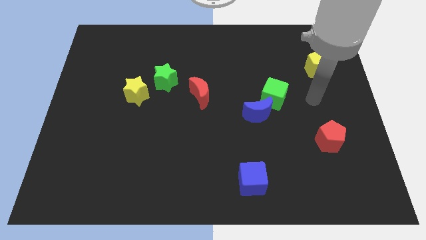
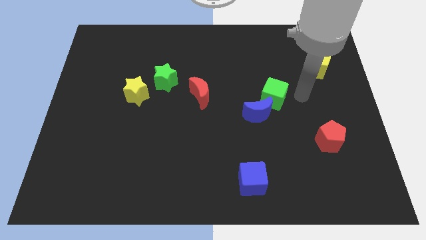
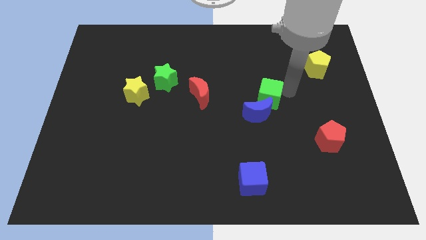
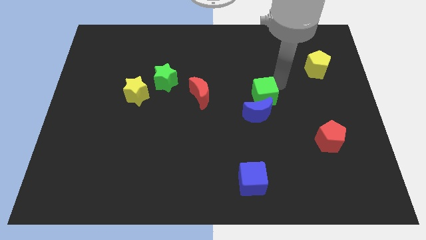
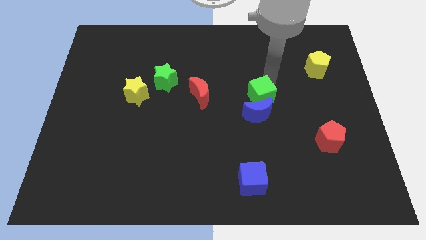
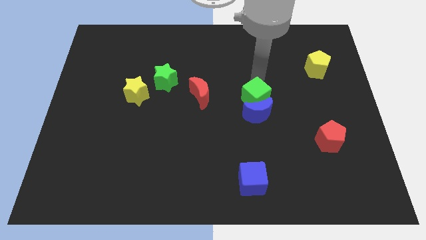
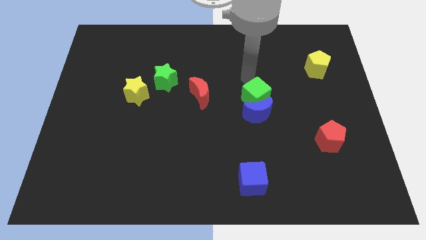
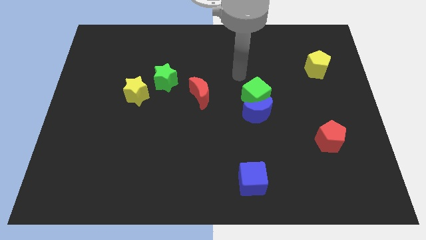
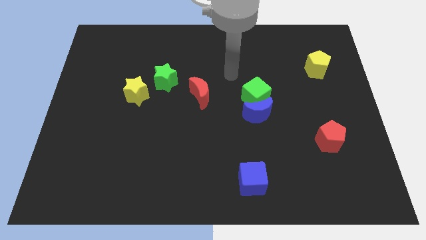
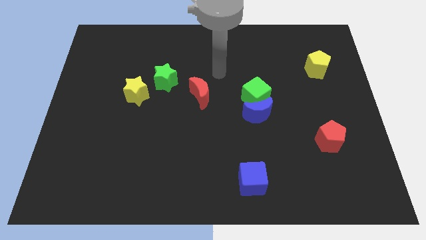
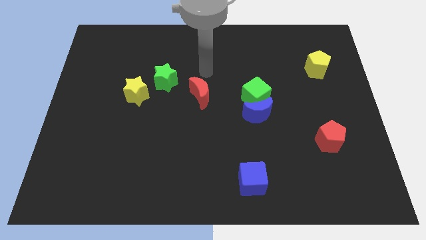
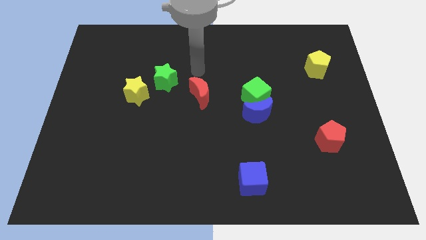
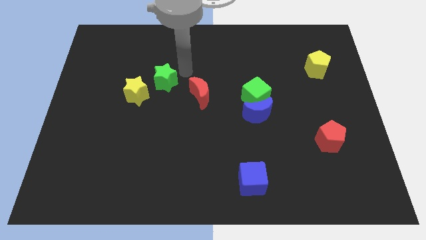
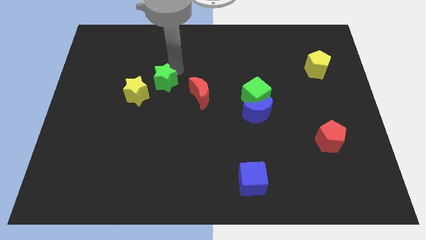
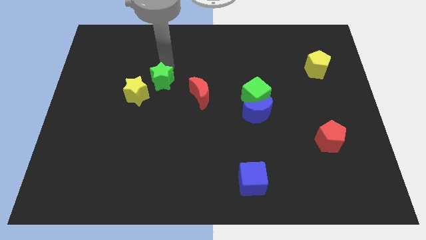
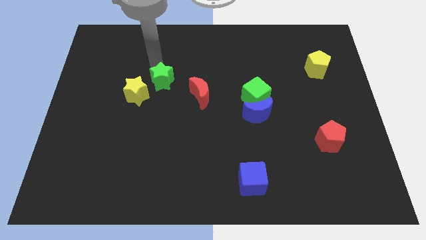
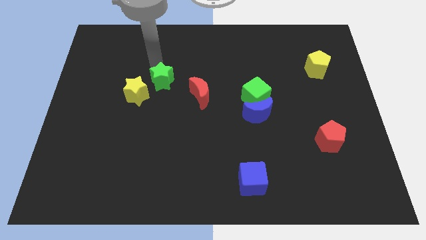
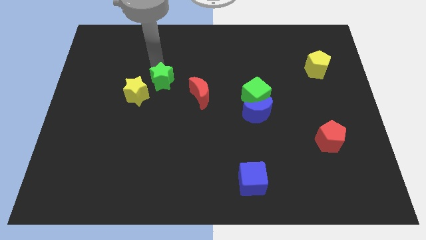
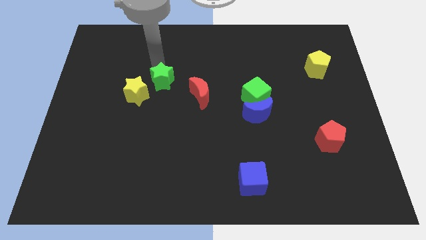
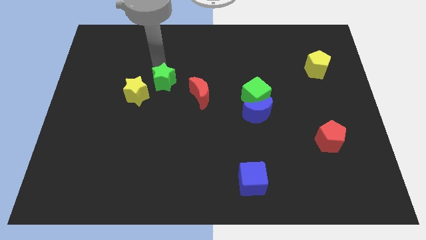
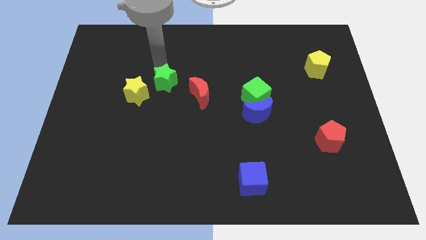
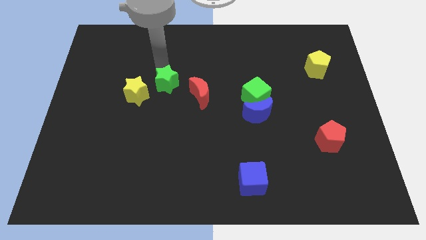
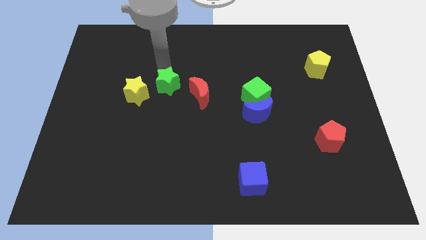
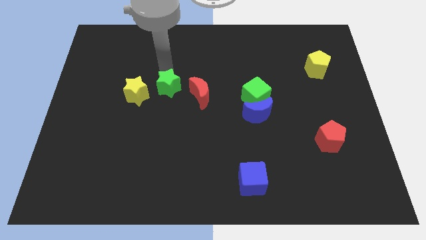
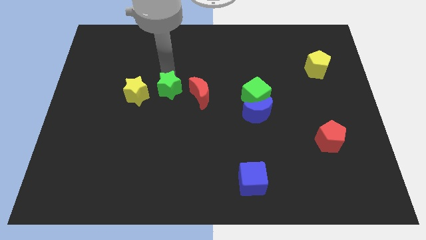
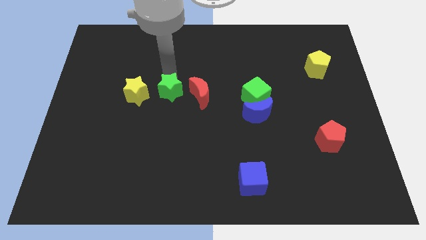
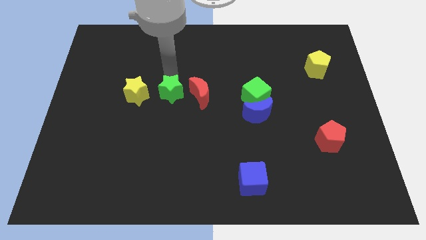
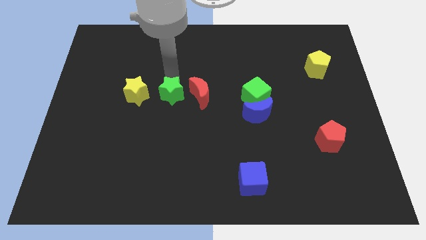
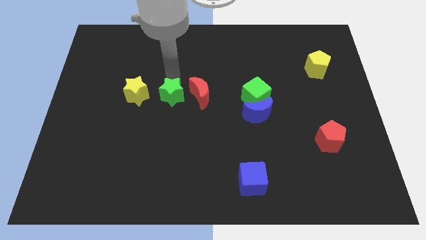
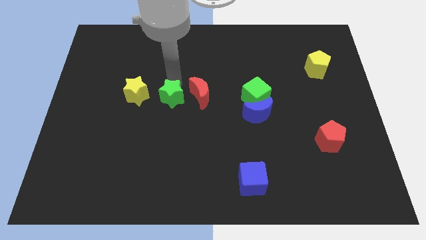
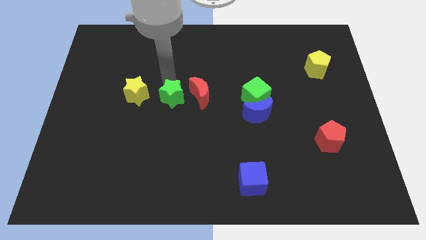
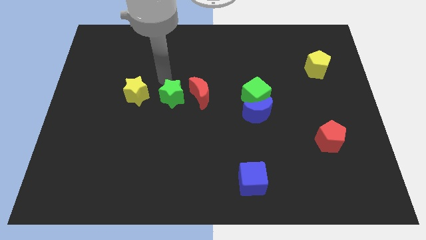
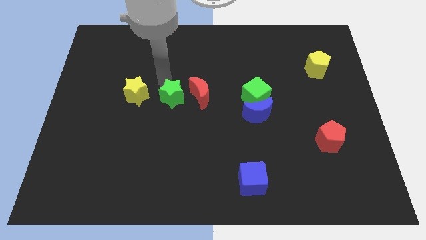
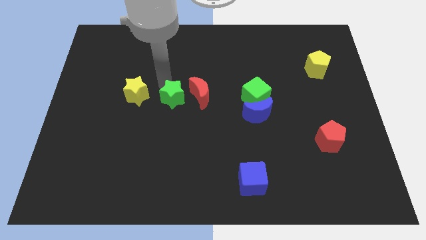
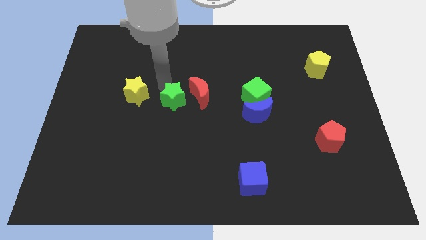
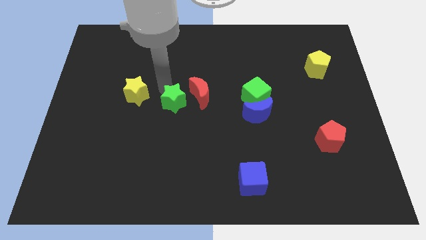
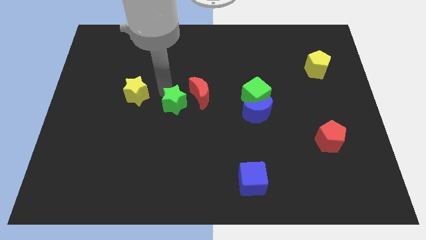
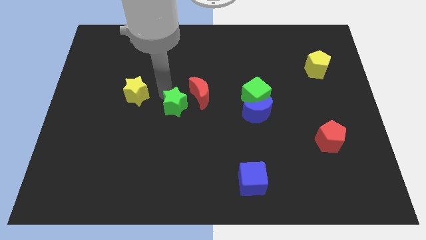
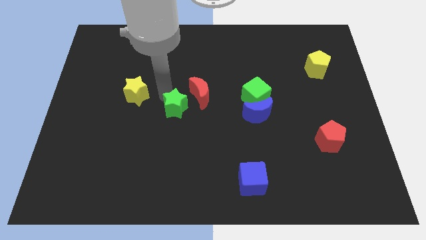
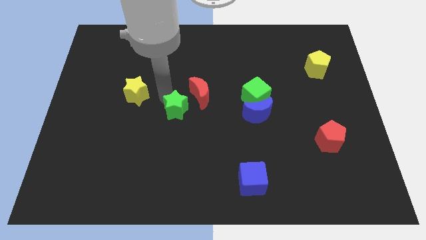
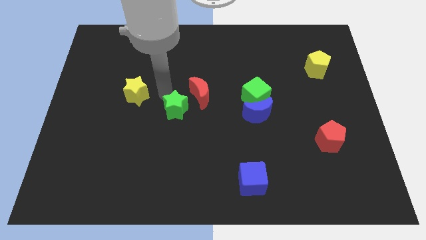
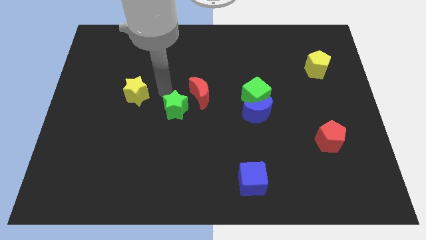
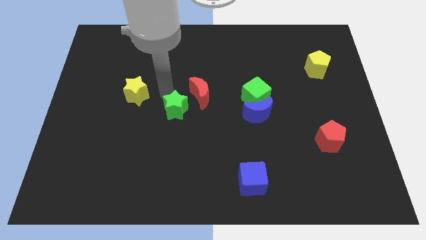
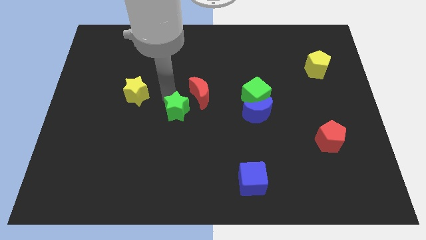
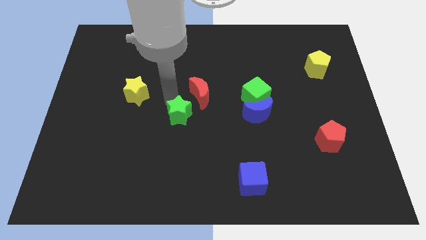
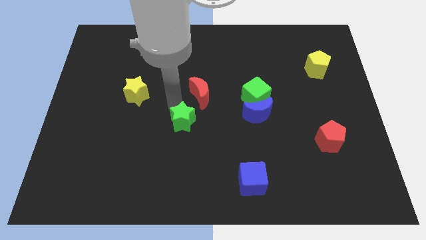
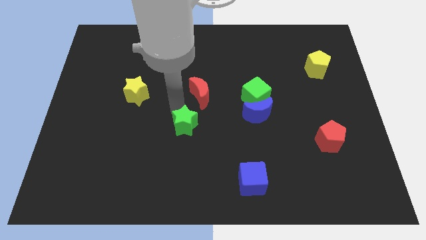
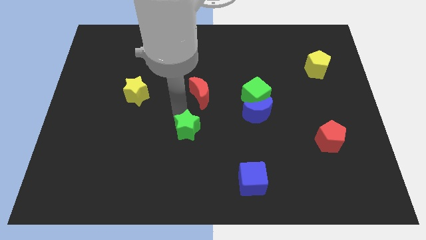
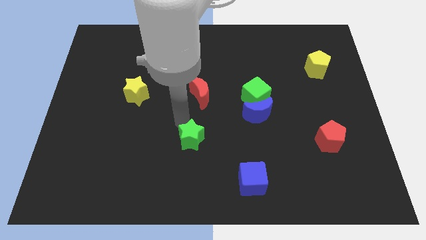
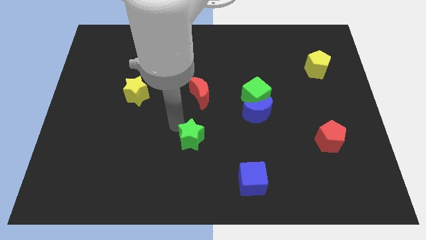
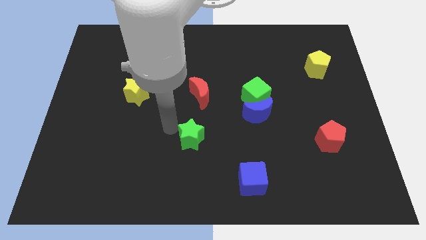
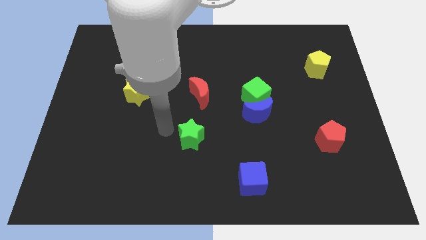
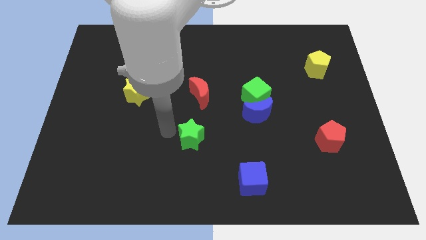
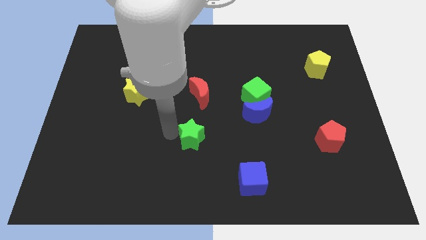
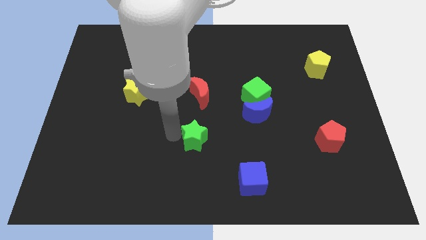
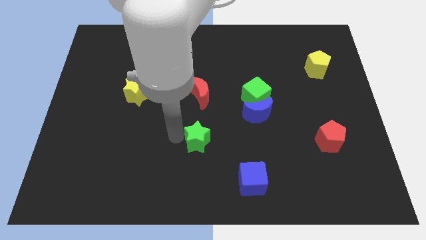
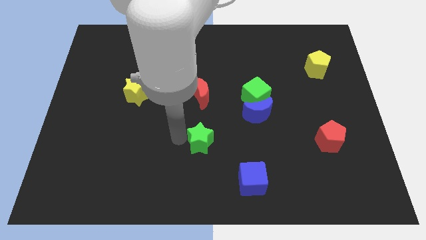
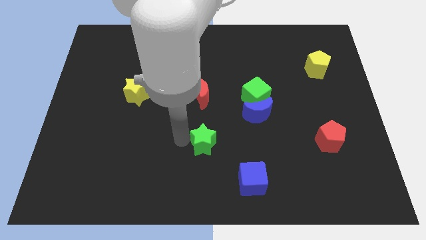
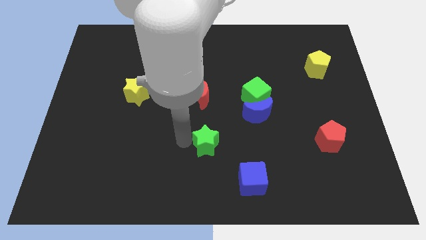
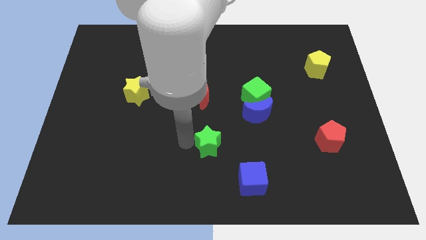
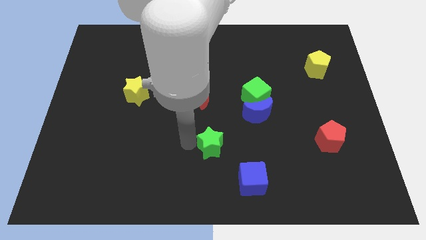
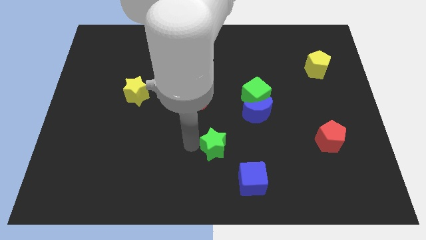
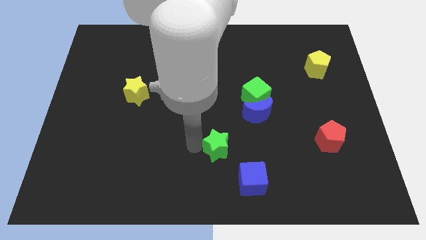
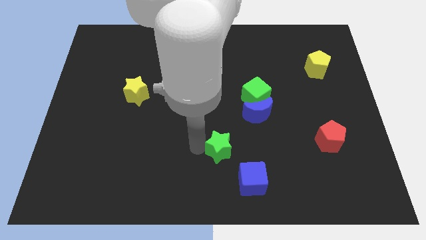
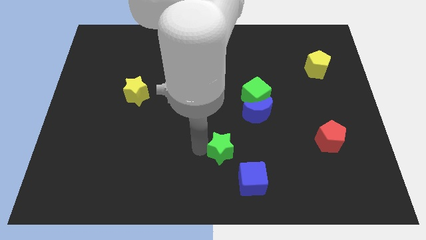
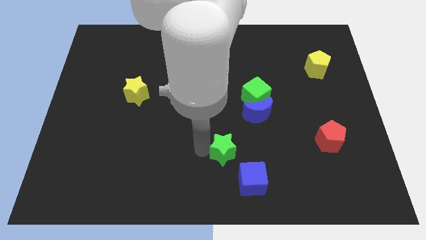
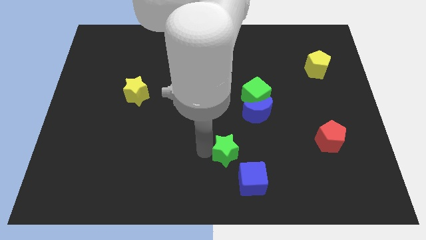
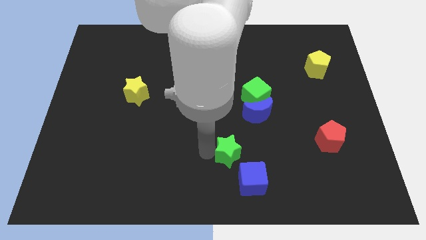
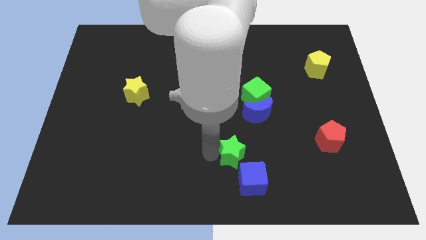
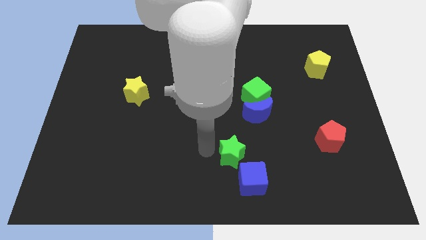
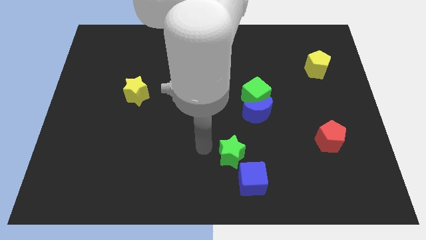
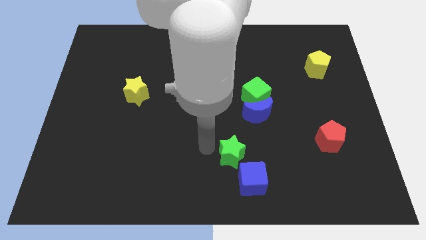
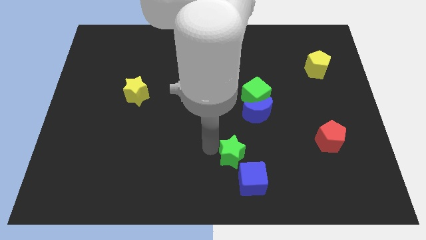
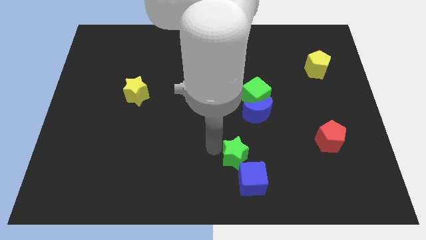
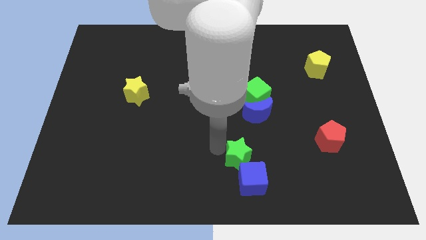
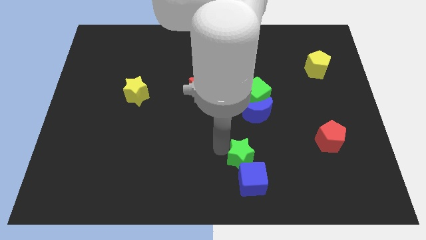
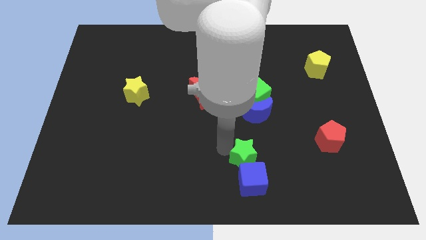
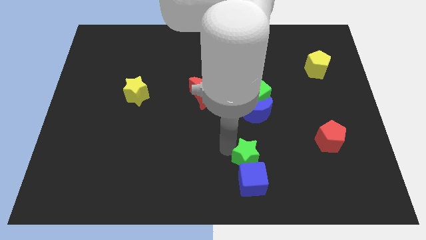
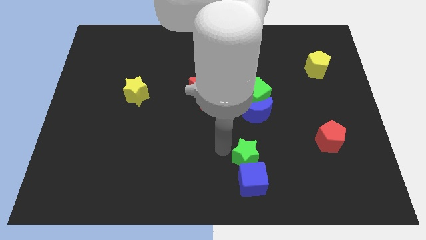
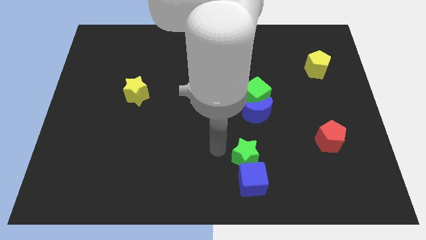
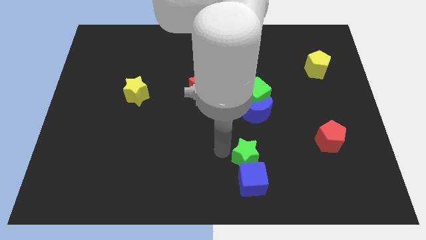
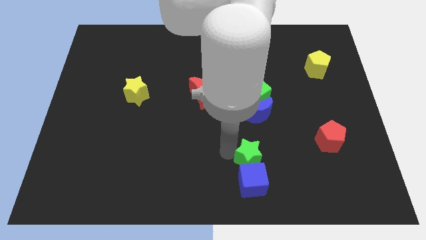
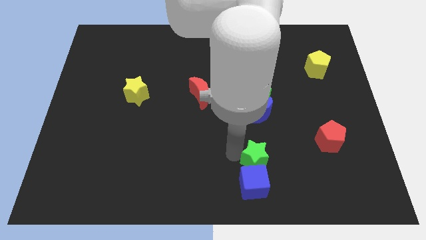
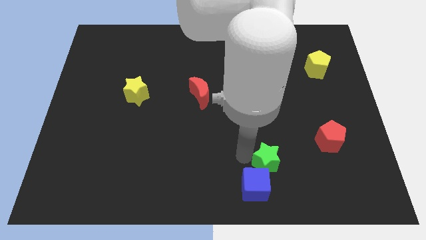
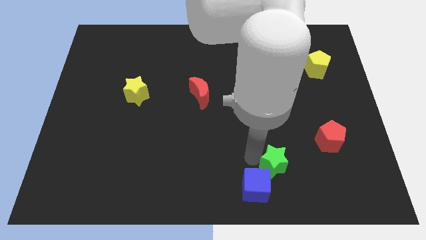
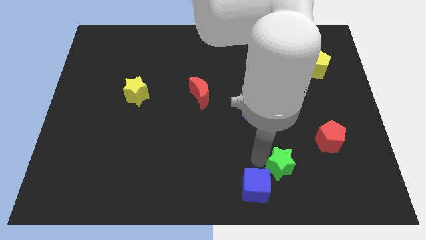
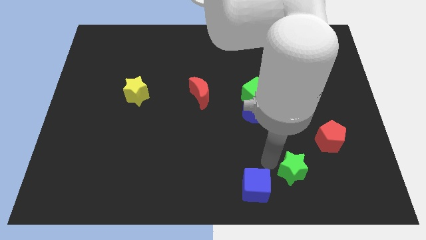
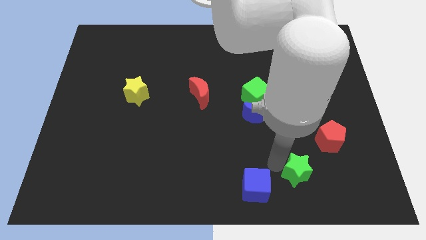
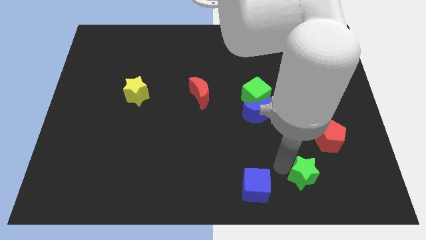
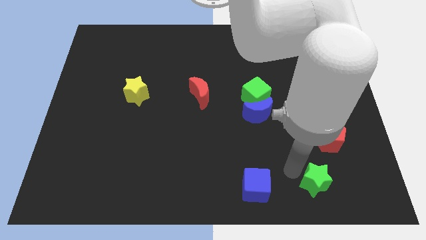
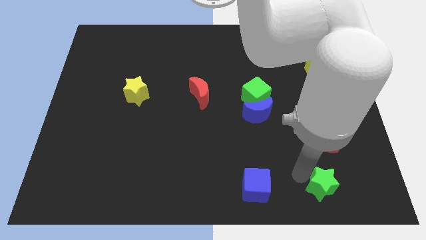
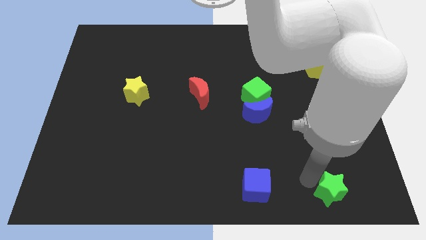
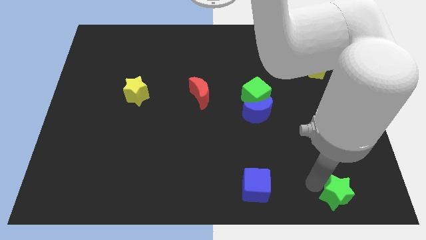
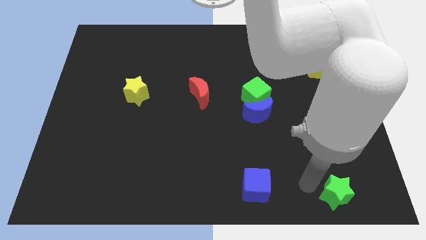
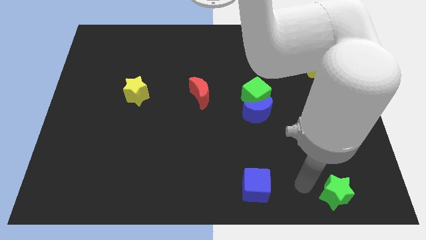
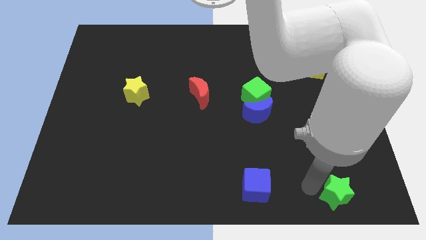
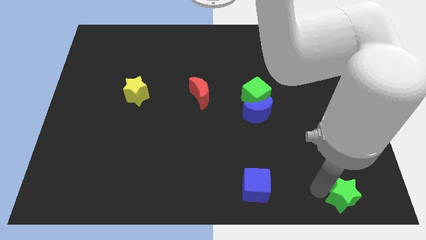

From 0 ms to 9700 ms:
move the green star to the bottom right
